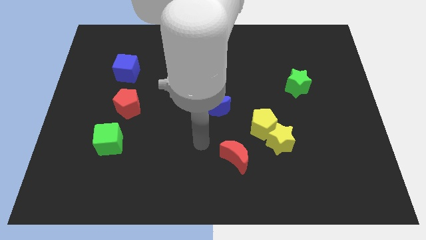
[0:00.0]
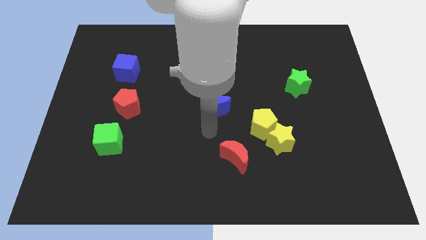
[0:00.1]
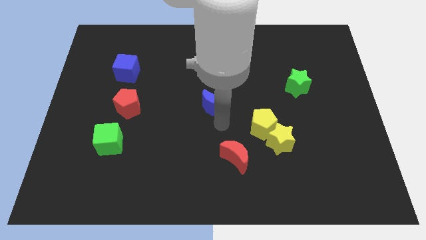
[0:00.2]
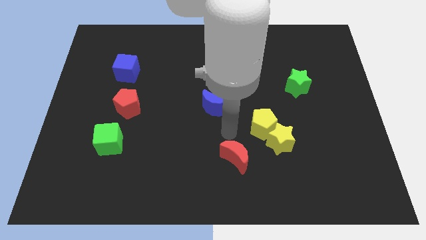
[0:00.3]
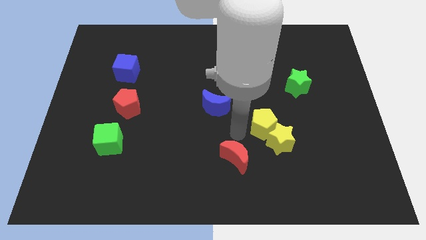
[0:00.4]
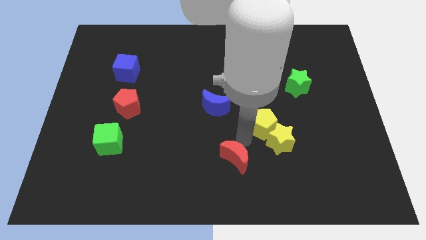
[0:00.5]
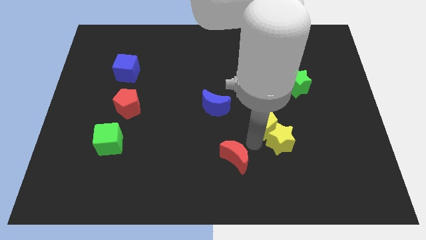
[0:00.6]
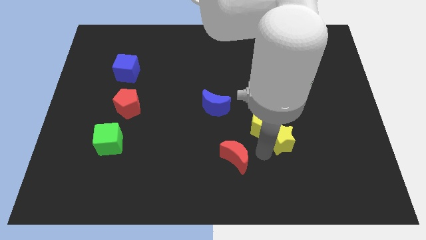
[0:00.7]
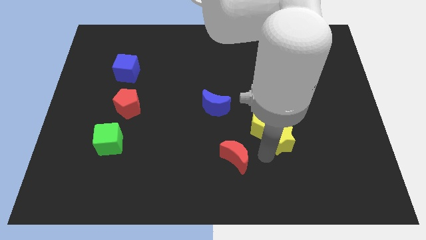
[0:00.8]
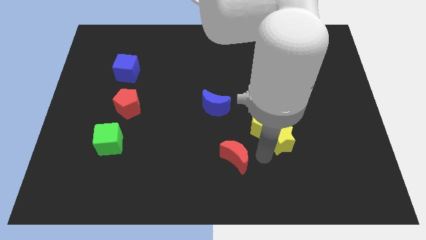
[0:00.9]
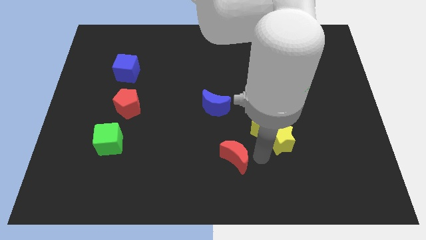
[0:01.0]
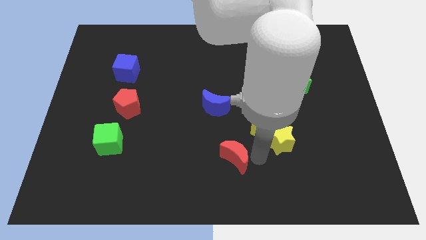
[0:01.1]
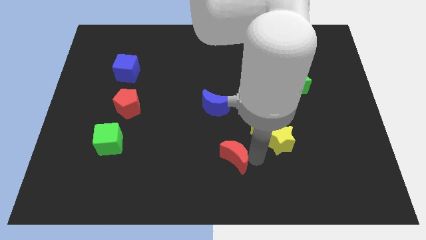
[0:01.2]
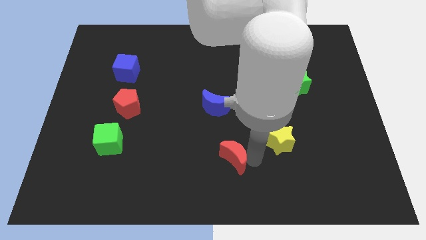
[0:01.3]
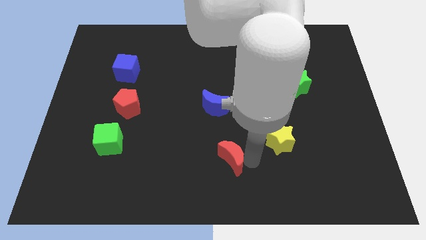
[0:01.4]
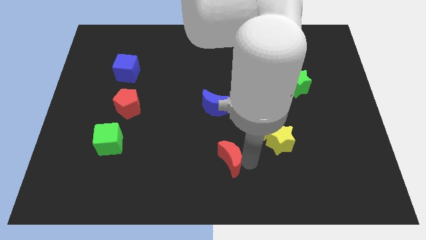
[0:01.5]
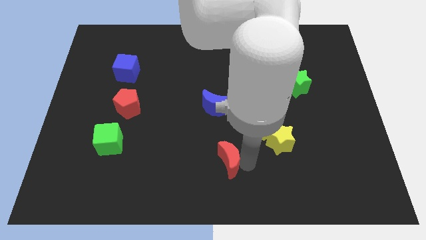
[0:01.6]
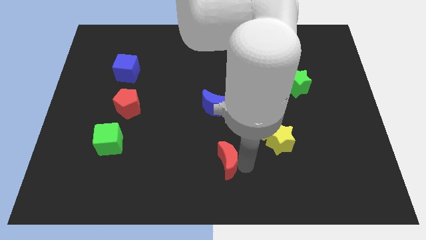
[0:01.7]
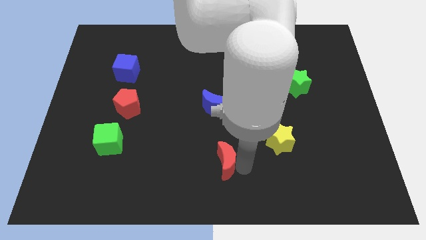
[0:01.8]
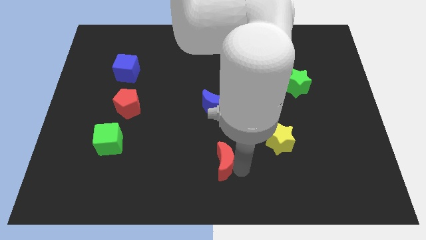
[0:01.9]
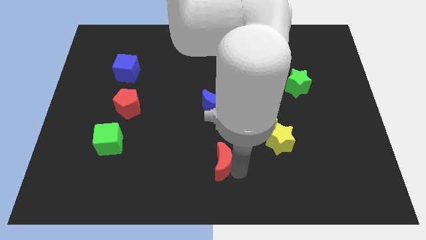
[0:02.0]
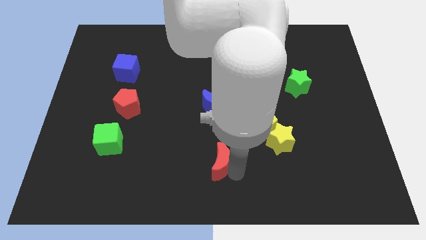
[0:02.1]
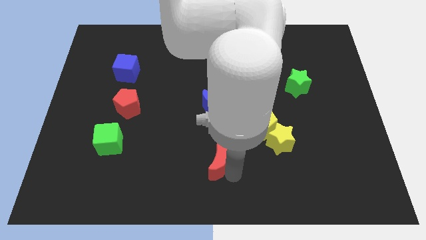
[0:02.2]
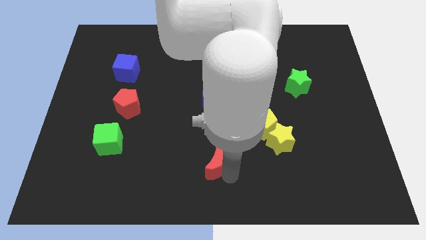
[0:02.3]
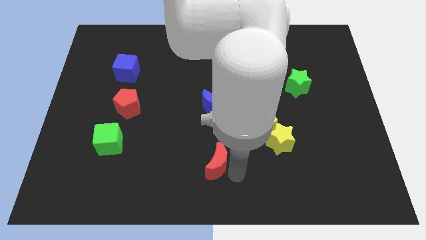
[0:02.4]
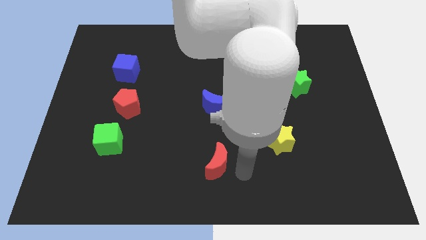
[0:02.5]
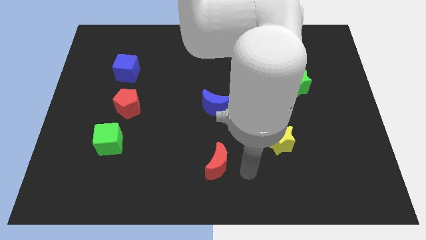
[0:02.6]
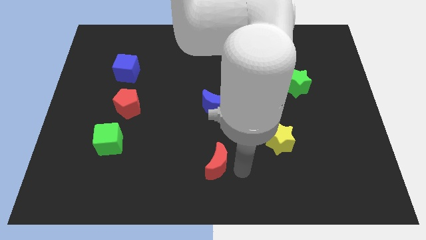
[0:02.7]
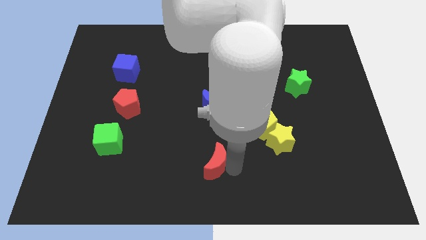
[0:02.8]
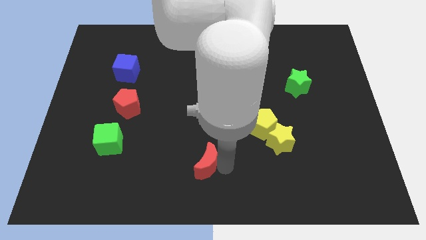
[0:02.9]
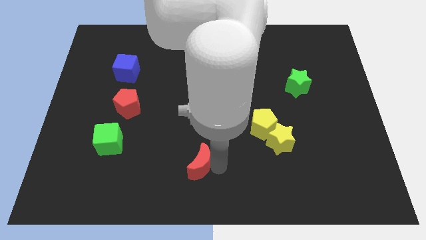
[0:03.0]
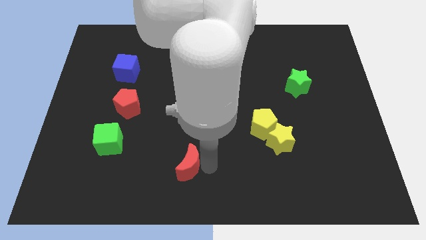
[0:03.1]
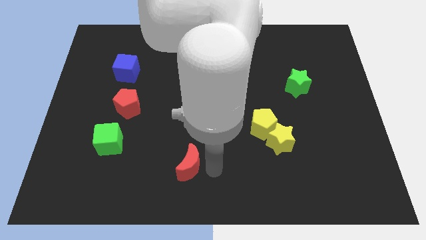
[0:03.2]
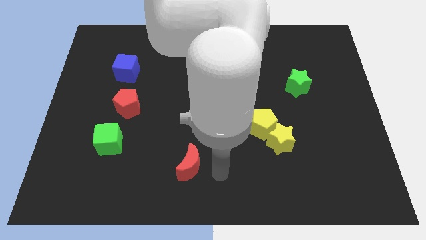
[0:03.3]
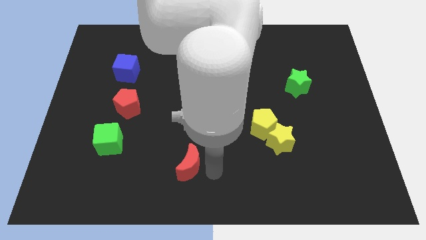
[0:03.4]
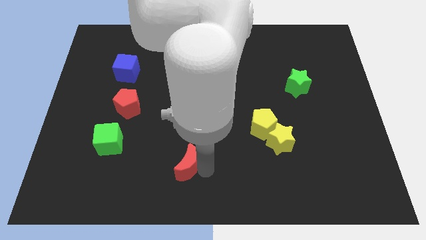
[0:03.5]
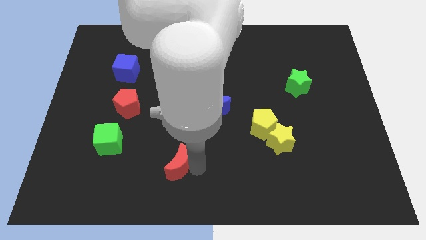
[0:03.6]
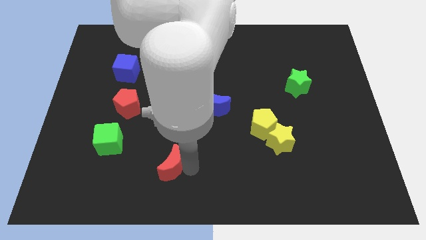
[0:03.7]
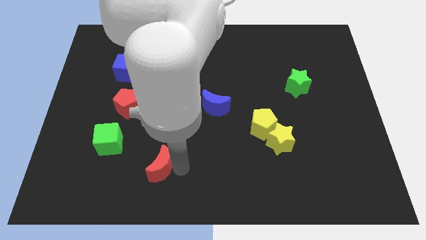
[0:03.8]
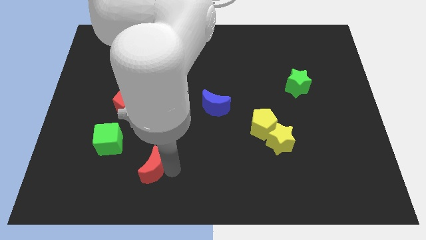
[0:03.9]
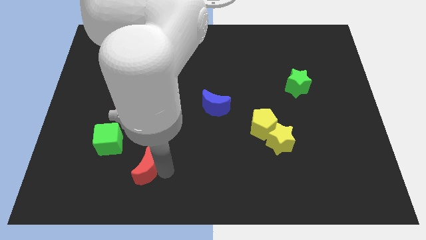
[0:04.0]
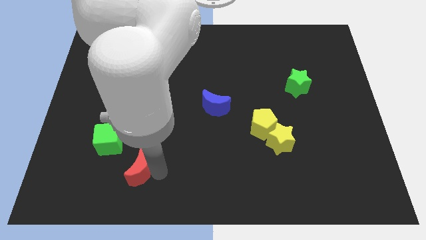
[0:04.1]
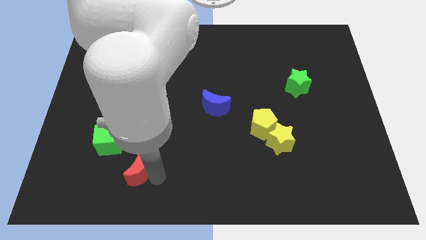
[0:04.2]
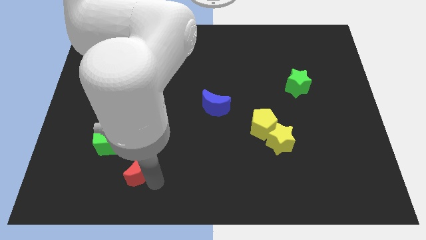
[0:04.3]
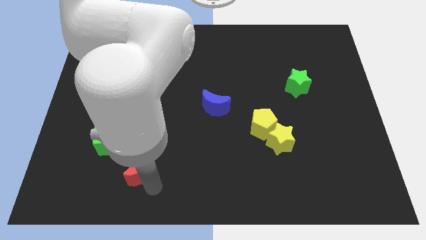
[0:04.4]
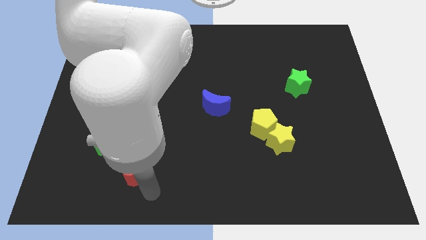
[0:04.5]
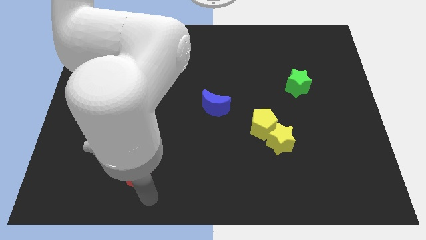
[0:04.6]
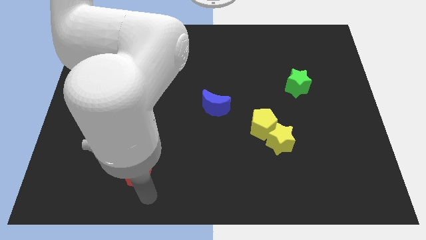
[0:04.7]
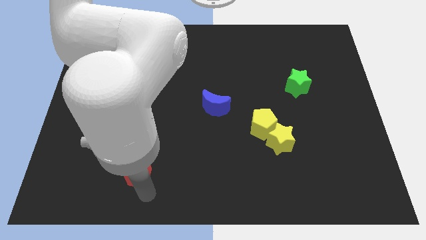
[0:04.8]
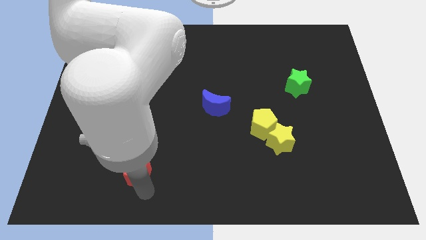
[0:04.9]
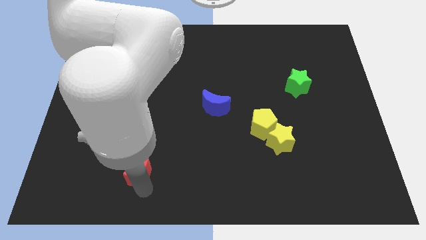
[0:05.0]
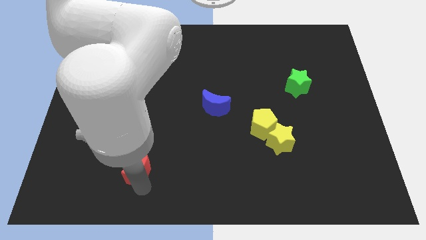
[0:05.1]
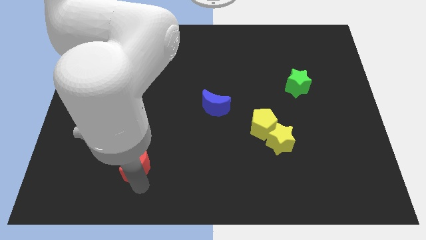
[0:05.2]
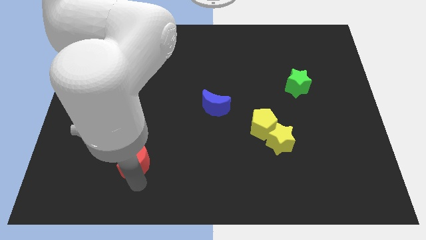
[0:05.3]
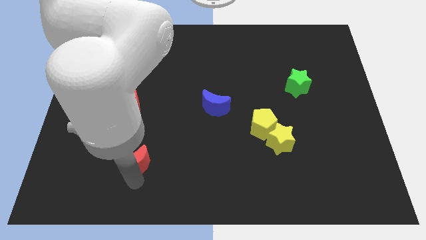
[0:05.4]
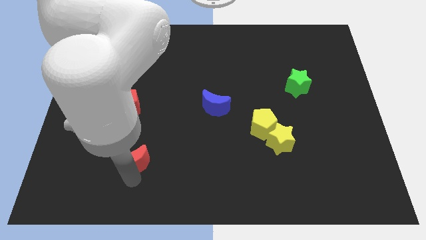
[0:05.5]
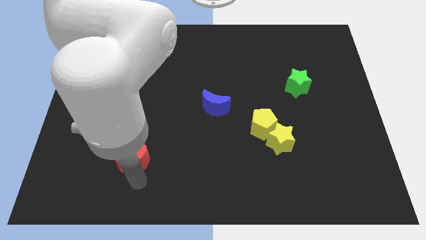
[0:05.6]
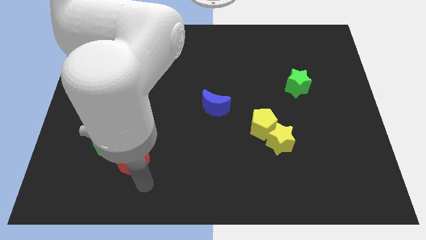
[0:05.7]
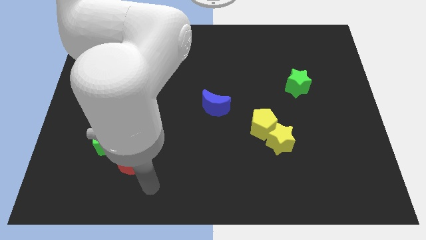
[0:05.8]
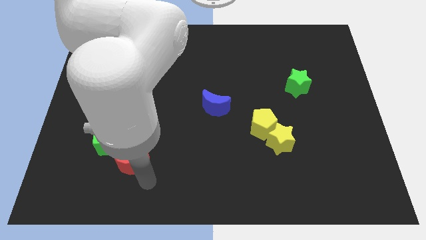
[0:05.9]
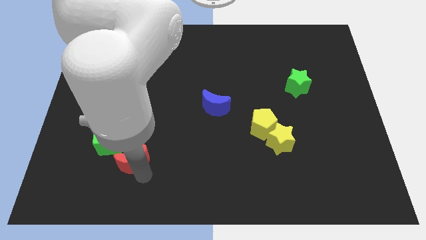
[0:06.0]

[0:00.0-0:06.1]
push the red moon to the bottom side of the red pentagon

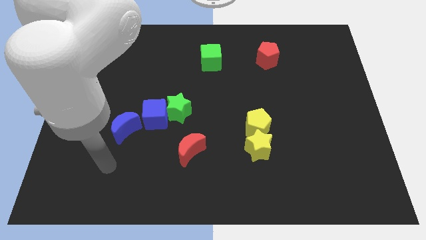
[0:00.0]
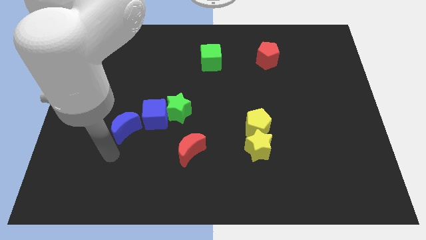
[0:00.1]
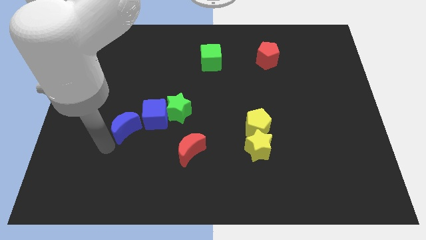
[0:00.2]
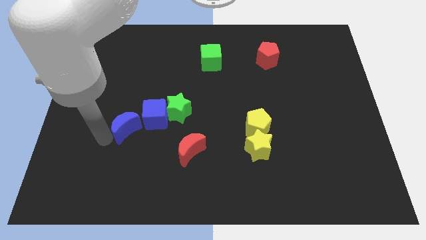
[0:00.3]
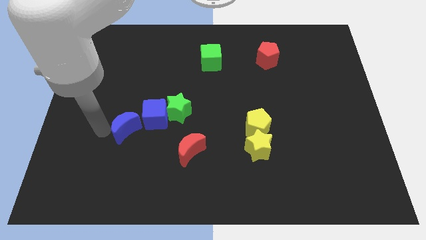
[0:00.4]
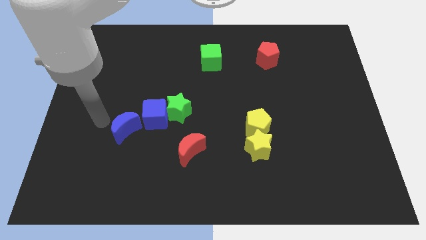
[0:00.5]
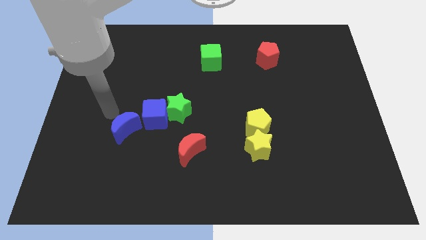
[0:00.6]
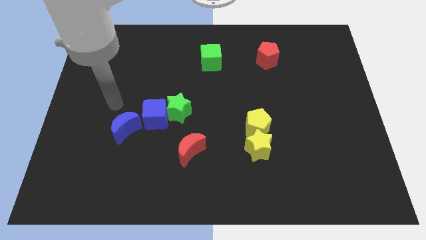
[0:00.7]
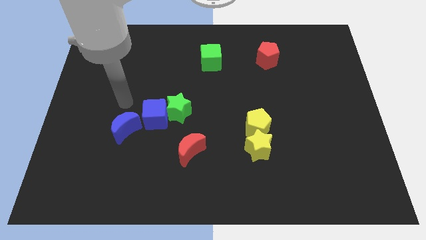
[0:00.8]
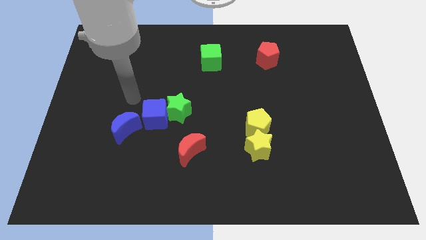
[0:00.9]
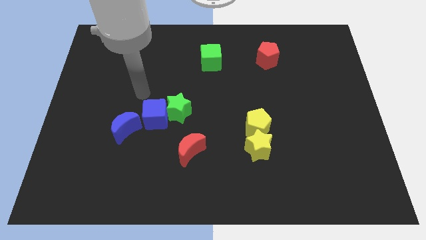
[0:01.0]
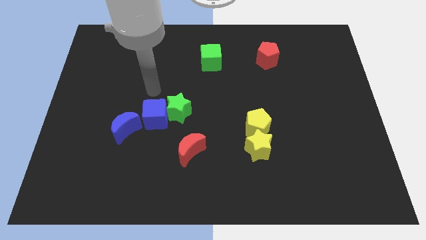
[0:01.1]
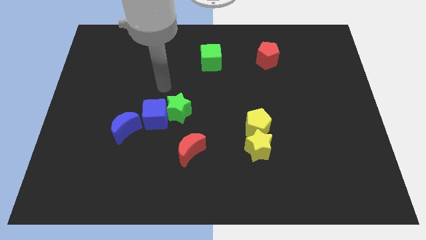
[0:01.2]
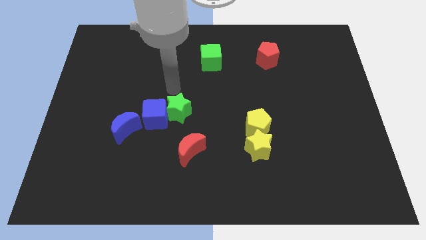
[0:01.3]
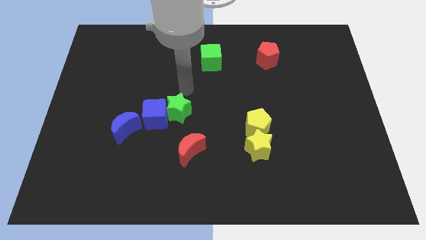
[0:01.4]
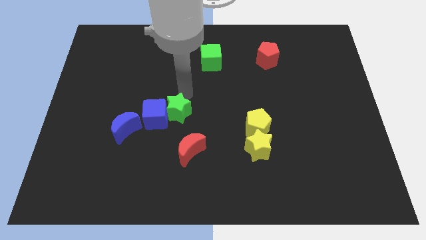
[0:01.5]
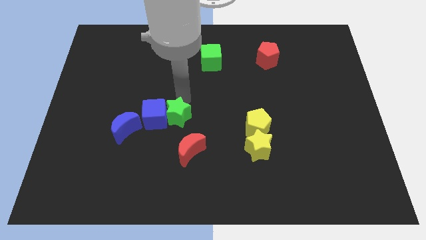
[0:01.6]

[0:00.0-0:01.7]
slide the green star to the right side of the blue moon

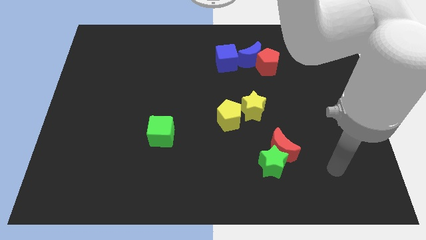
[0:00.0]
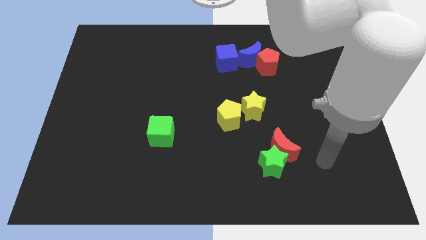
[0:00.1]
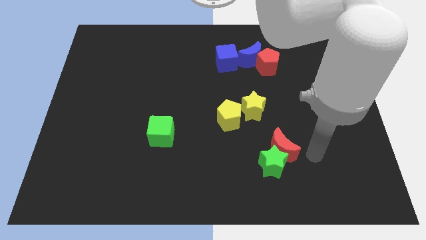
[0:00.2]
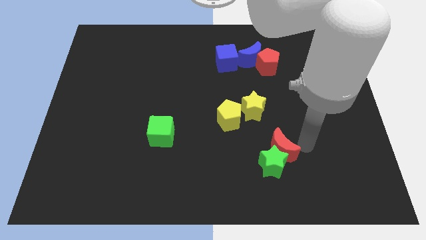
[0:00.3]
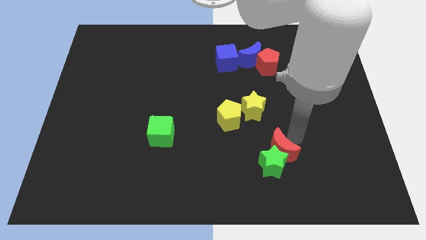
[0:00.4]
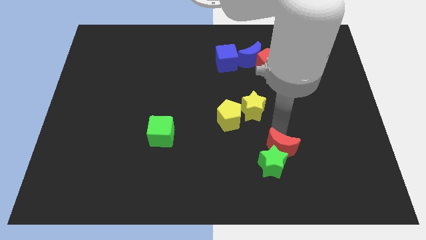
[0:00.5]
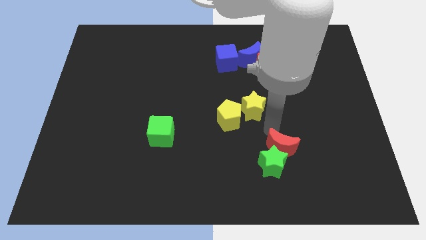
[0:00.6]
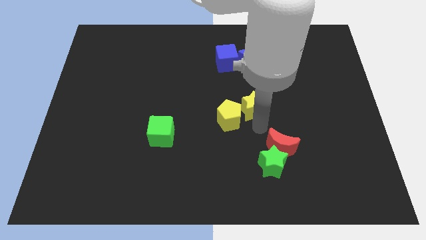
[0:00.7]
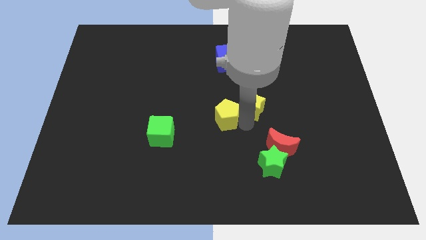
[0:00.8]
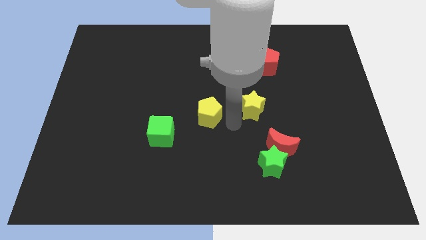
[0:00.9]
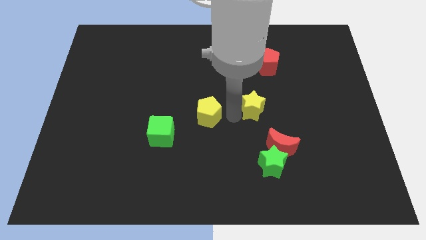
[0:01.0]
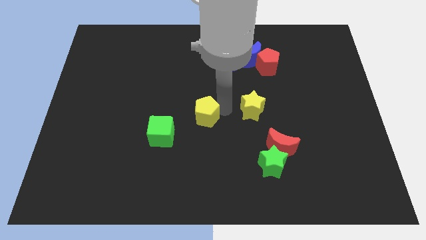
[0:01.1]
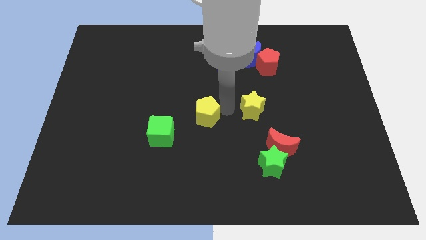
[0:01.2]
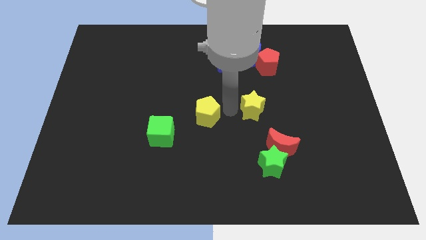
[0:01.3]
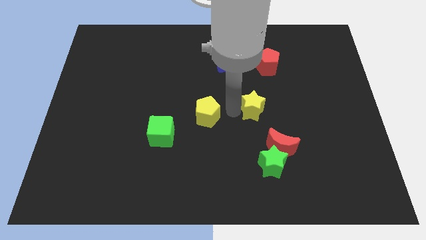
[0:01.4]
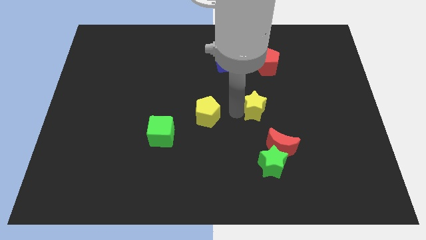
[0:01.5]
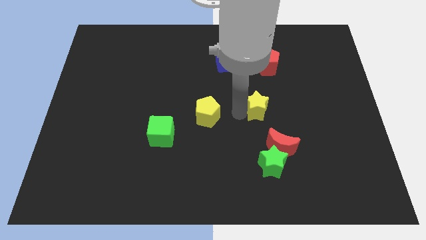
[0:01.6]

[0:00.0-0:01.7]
put the yellow star to the top side of the red moon
